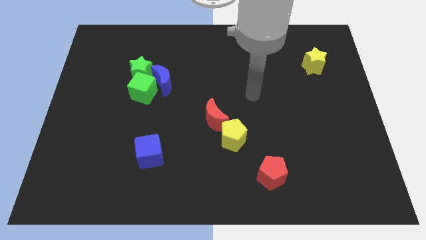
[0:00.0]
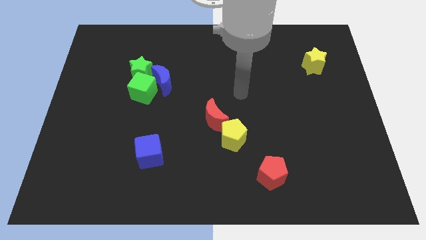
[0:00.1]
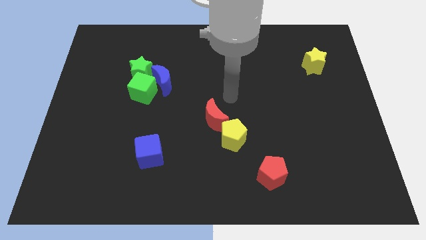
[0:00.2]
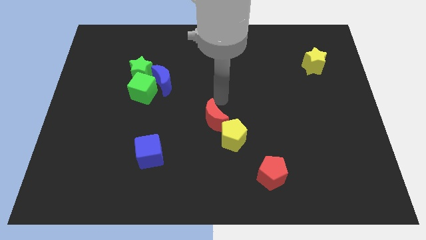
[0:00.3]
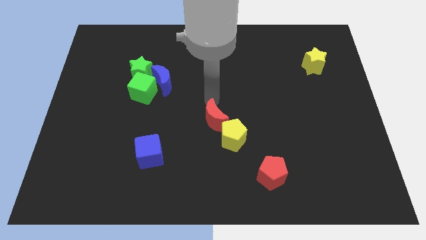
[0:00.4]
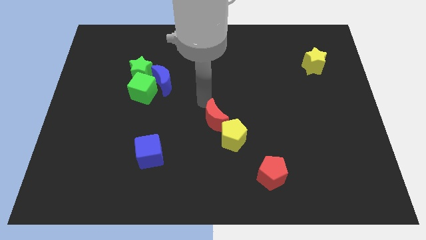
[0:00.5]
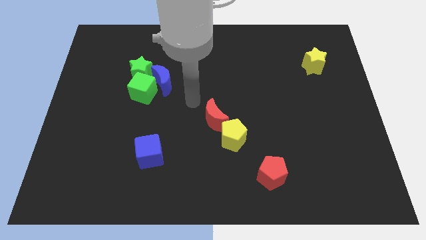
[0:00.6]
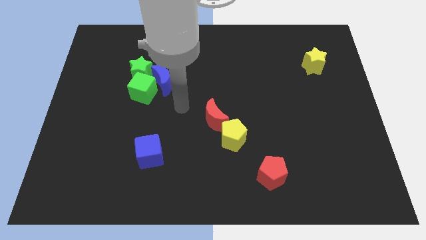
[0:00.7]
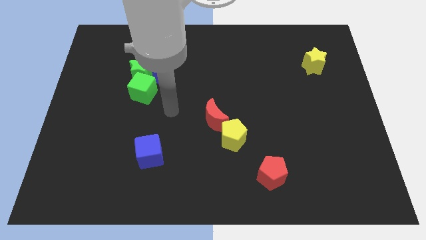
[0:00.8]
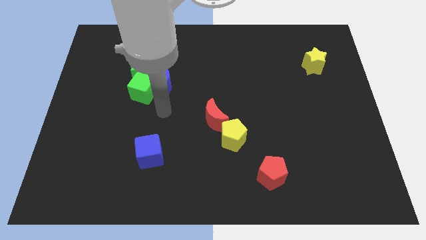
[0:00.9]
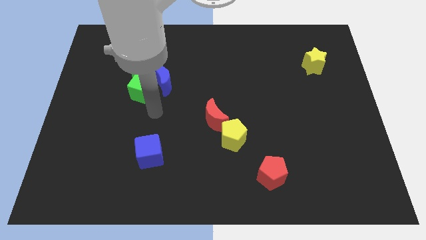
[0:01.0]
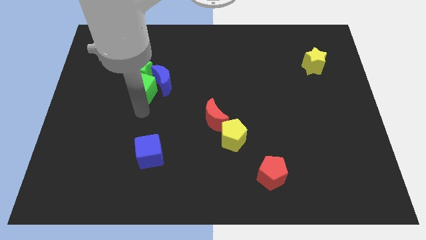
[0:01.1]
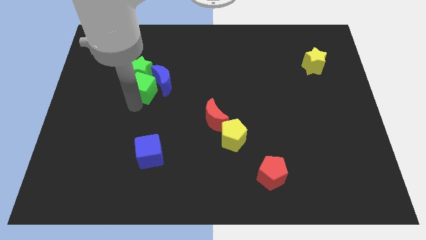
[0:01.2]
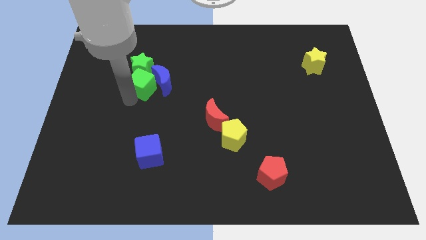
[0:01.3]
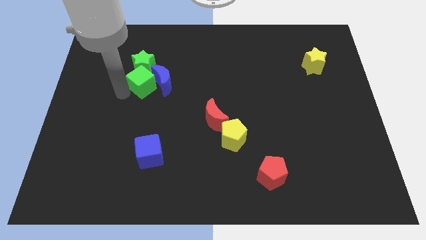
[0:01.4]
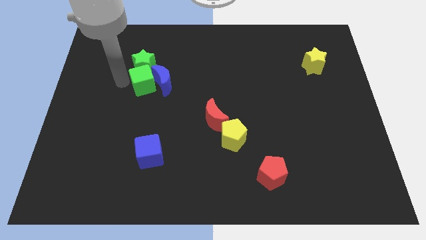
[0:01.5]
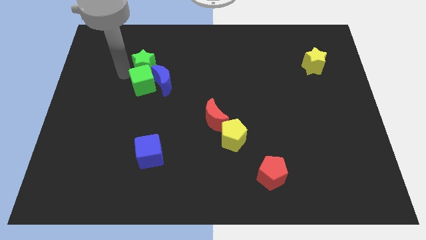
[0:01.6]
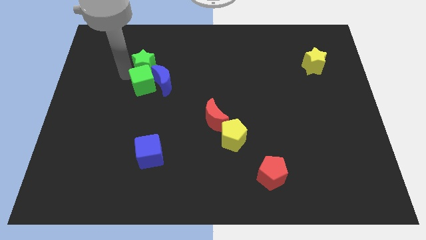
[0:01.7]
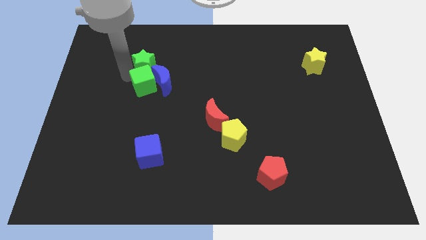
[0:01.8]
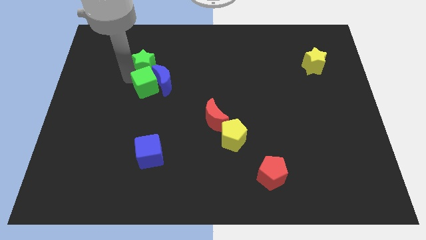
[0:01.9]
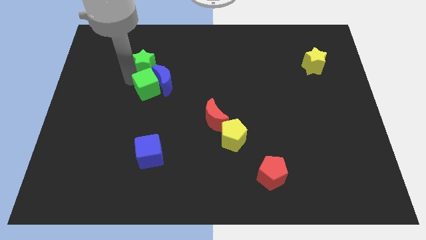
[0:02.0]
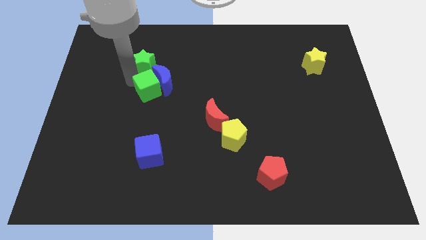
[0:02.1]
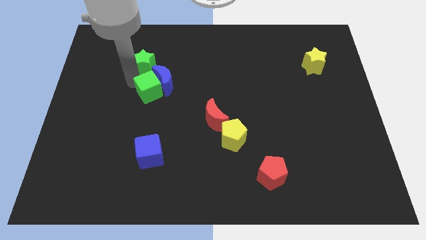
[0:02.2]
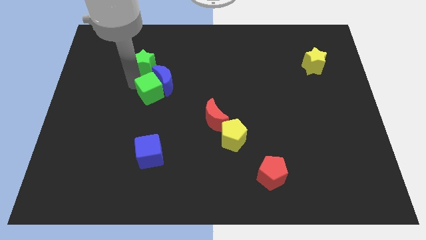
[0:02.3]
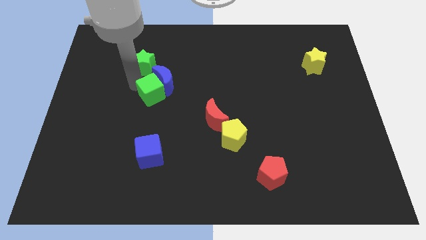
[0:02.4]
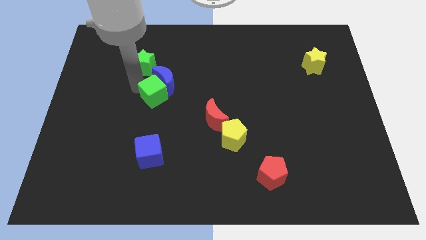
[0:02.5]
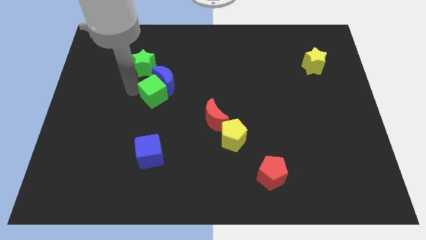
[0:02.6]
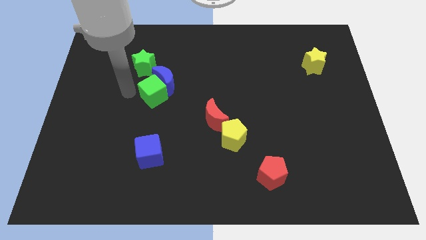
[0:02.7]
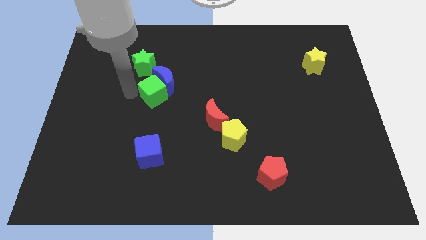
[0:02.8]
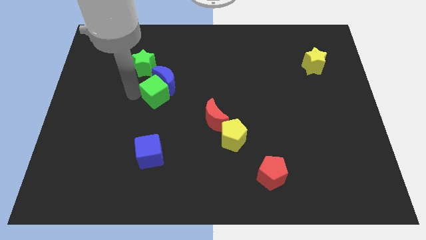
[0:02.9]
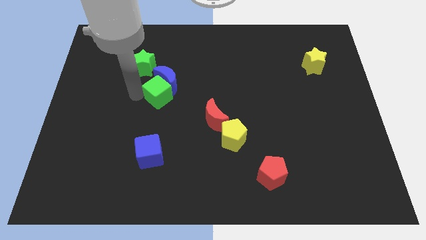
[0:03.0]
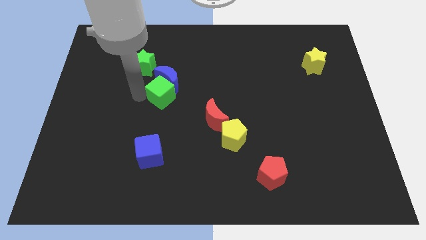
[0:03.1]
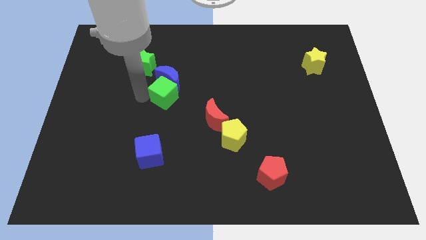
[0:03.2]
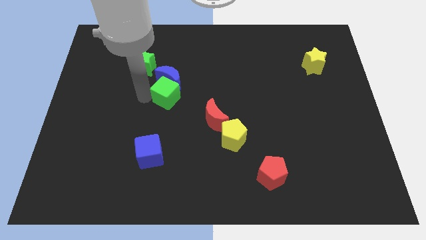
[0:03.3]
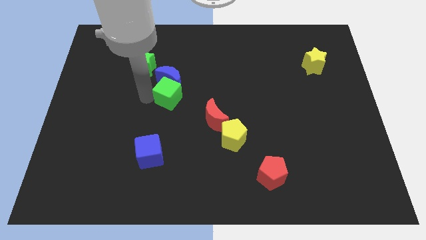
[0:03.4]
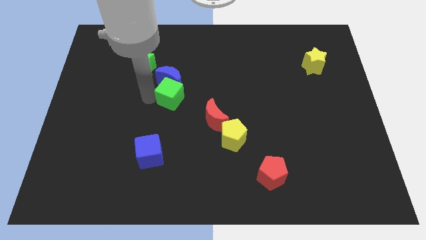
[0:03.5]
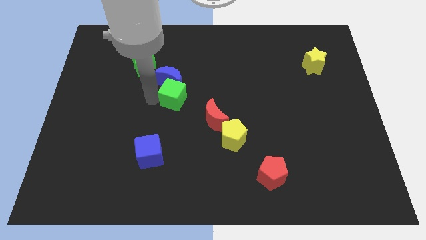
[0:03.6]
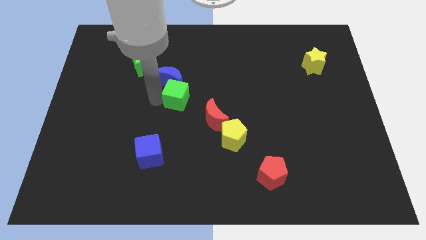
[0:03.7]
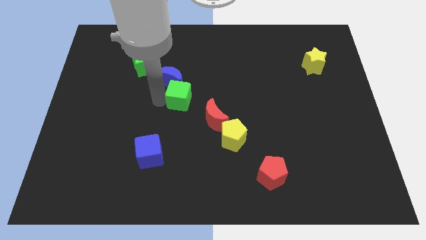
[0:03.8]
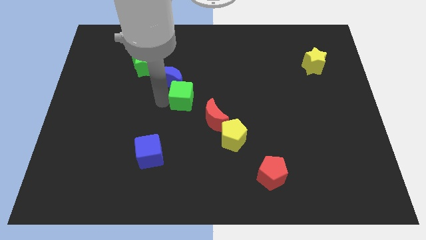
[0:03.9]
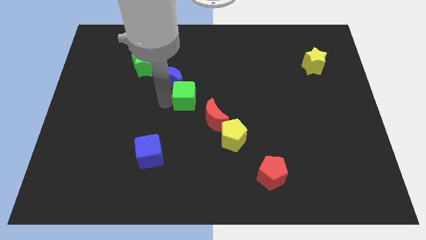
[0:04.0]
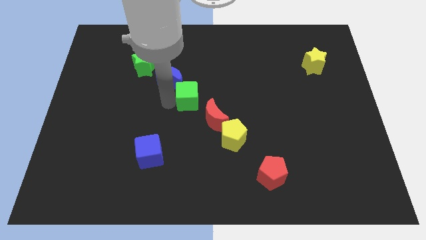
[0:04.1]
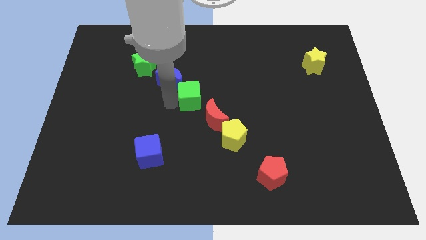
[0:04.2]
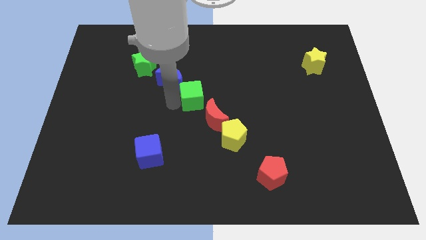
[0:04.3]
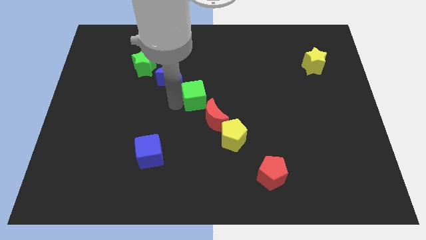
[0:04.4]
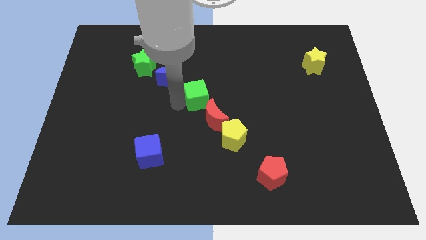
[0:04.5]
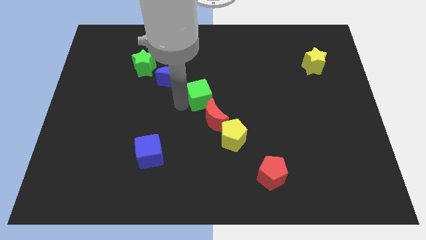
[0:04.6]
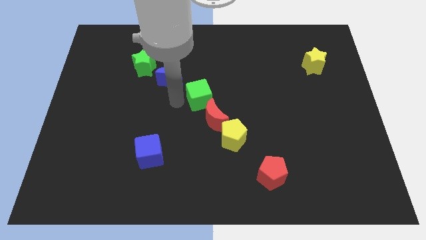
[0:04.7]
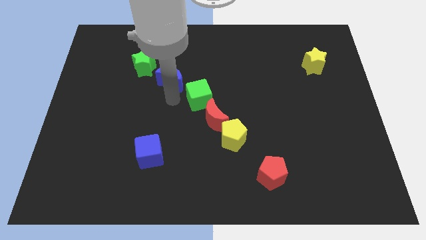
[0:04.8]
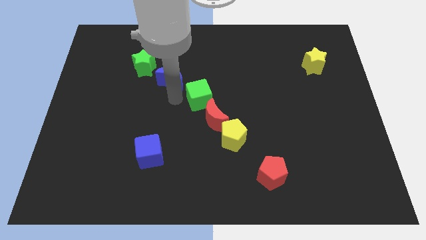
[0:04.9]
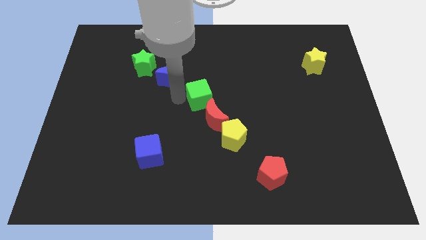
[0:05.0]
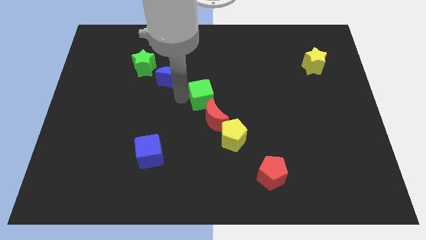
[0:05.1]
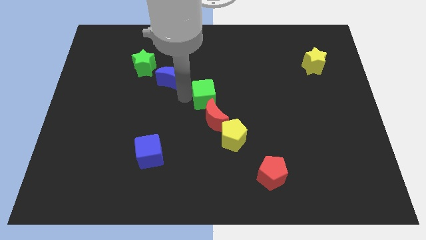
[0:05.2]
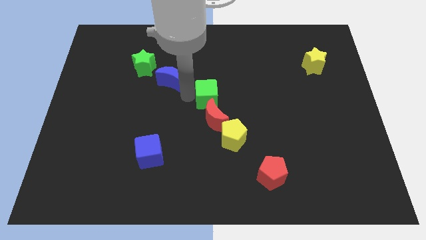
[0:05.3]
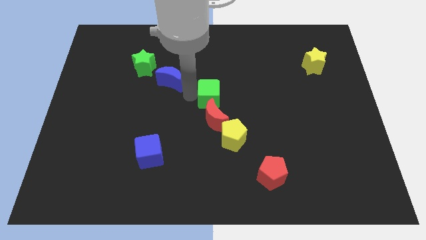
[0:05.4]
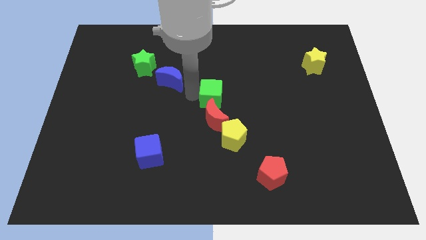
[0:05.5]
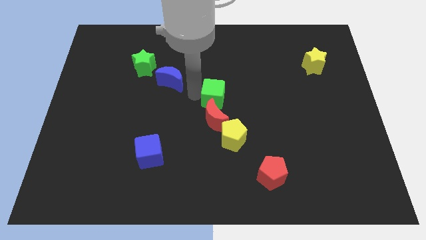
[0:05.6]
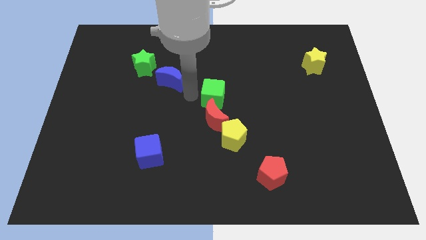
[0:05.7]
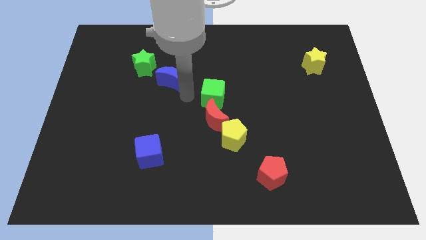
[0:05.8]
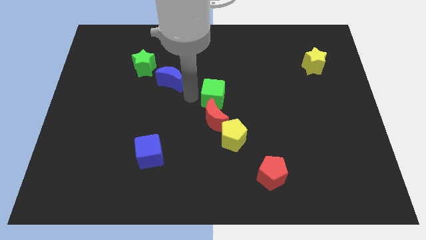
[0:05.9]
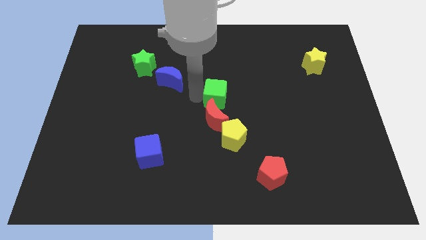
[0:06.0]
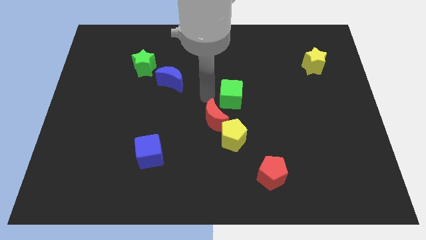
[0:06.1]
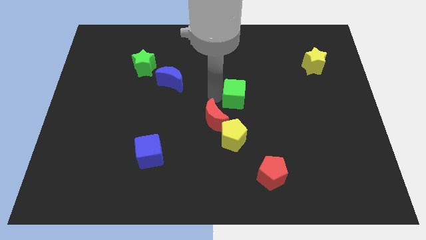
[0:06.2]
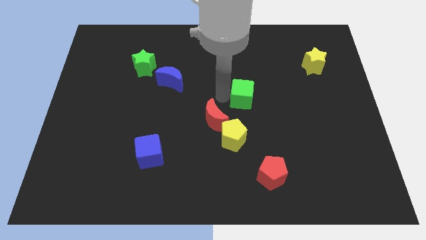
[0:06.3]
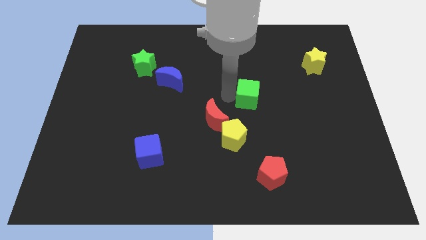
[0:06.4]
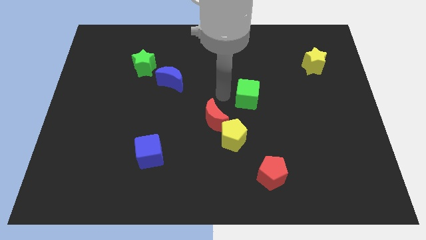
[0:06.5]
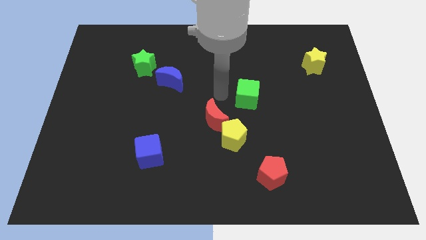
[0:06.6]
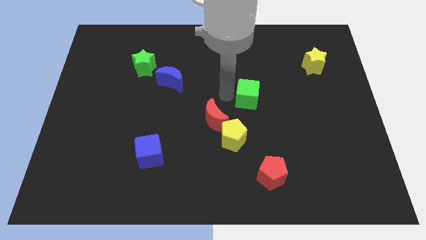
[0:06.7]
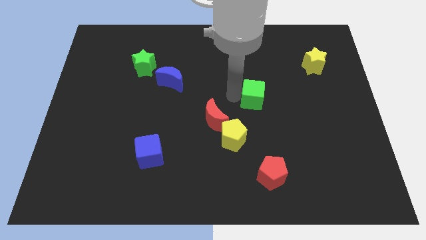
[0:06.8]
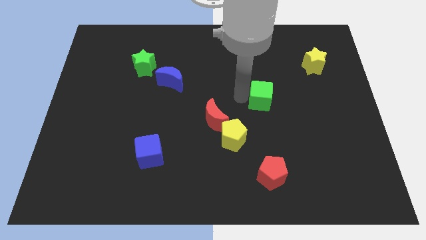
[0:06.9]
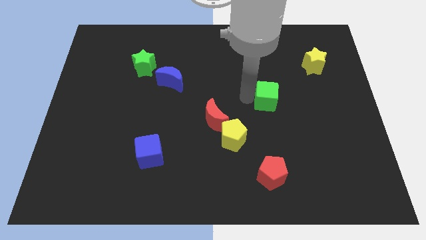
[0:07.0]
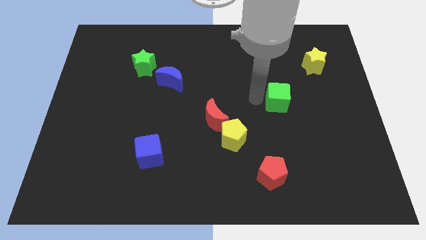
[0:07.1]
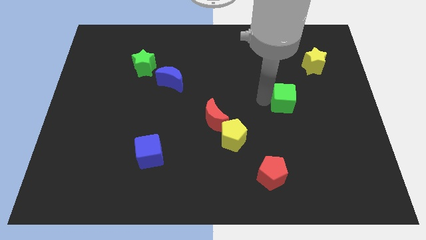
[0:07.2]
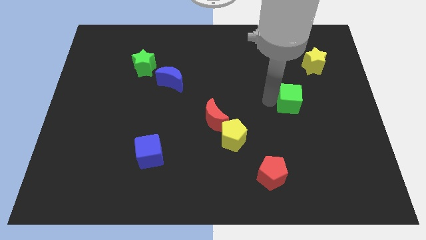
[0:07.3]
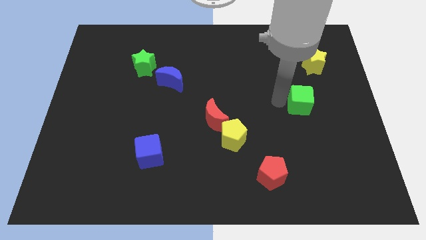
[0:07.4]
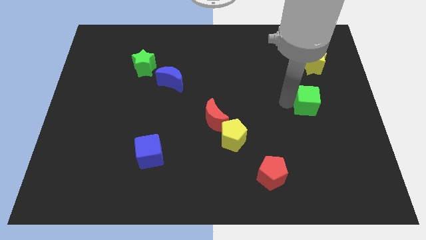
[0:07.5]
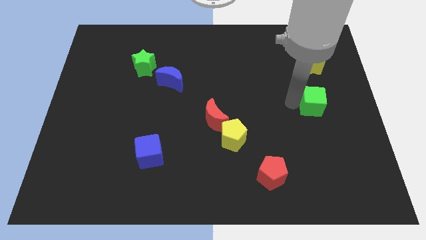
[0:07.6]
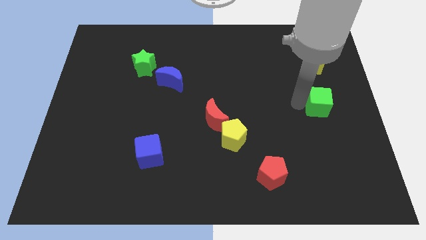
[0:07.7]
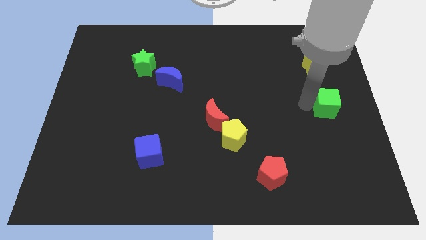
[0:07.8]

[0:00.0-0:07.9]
slide the green cube to the right side of the board
